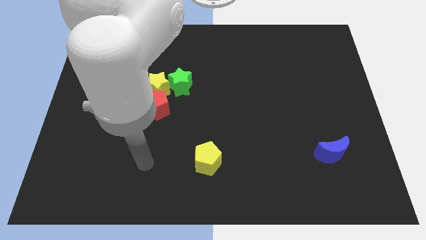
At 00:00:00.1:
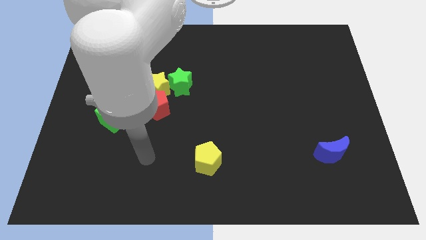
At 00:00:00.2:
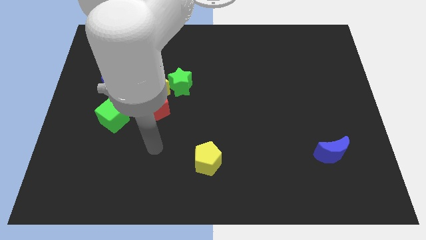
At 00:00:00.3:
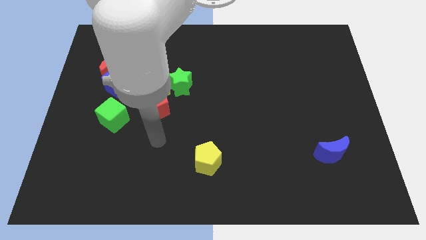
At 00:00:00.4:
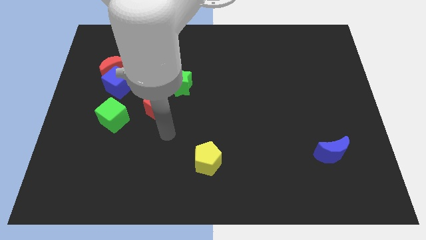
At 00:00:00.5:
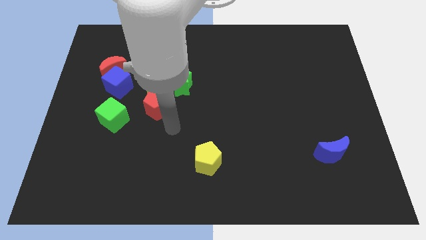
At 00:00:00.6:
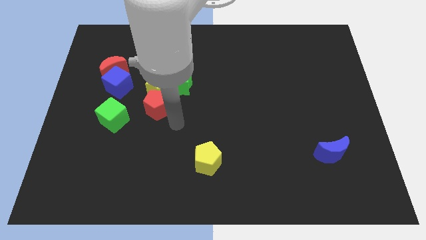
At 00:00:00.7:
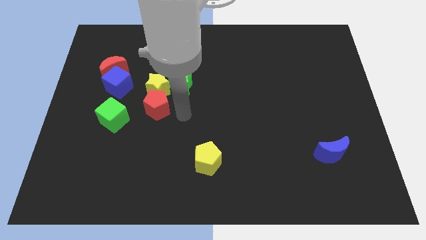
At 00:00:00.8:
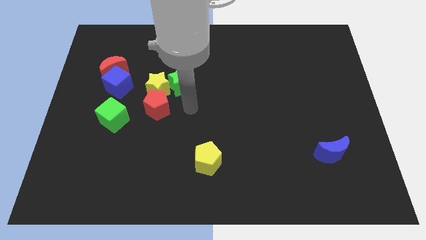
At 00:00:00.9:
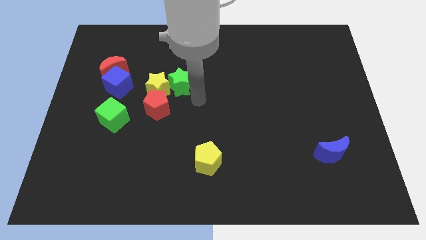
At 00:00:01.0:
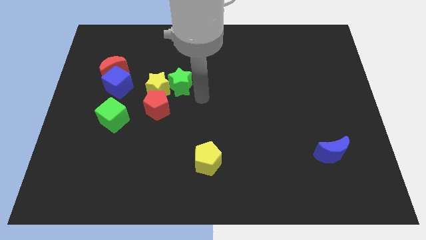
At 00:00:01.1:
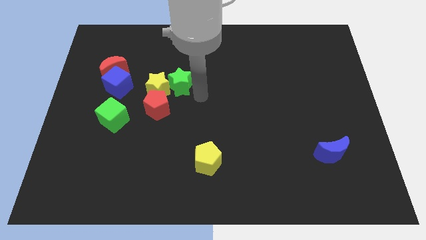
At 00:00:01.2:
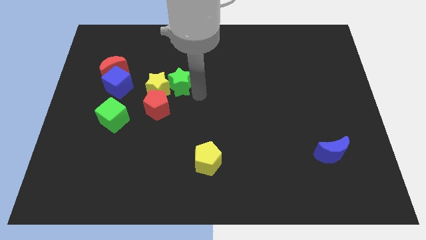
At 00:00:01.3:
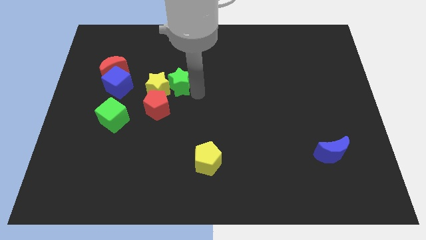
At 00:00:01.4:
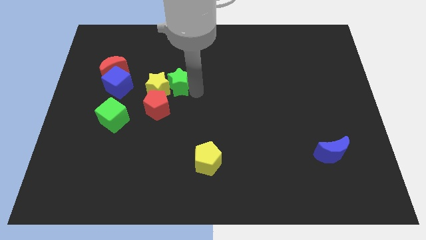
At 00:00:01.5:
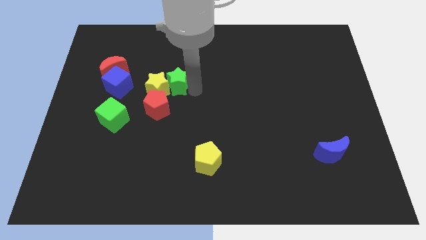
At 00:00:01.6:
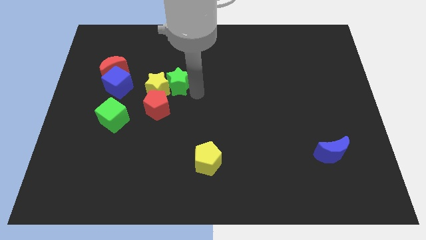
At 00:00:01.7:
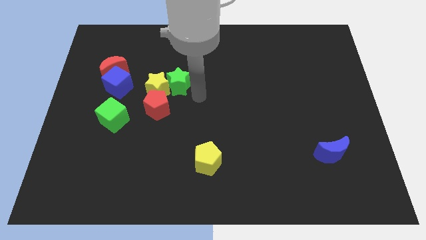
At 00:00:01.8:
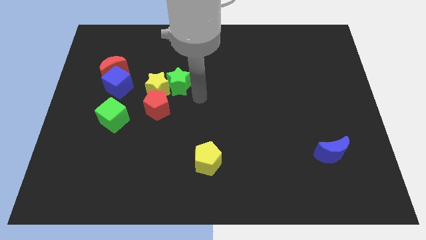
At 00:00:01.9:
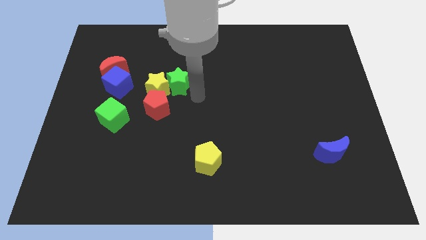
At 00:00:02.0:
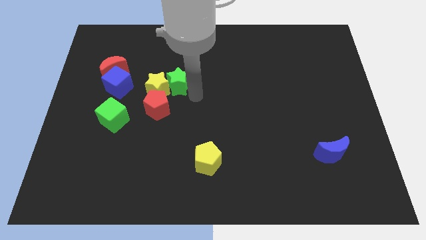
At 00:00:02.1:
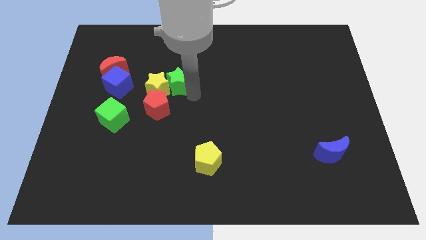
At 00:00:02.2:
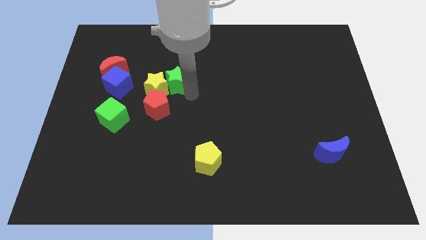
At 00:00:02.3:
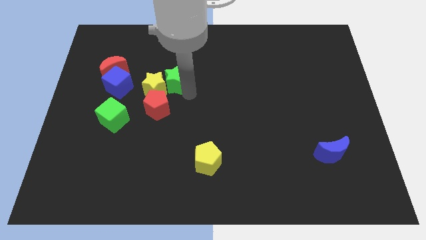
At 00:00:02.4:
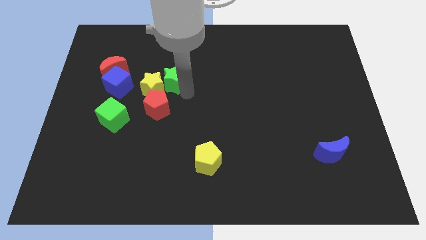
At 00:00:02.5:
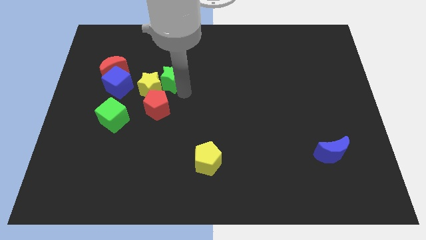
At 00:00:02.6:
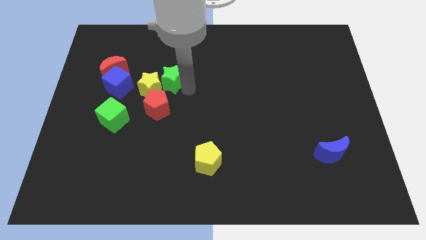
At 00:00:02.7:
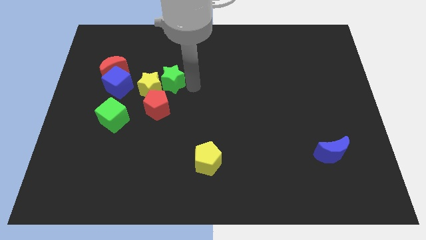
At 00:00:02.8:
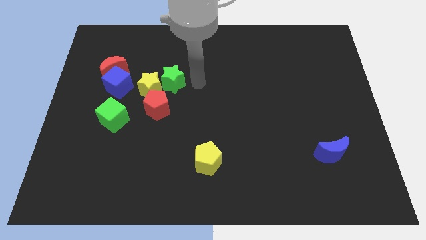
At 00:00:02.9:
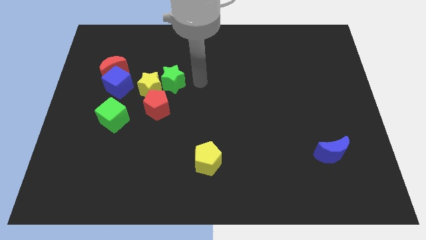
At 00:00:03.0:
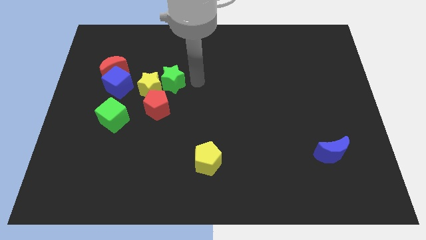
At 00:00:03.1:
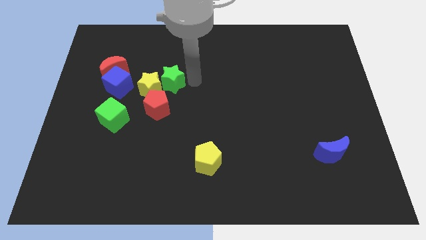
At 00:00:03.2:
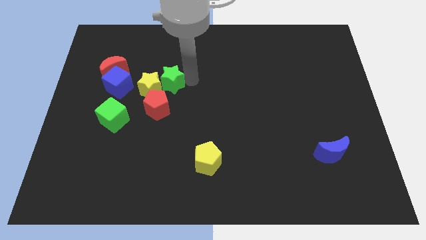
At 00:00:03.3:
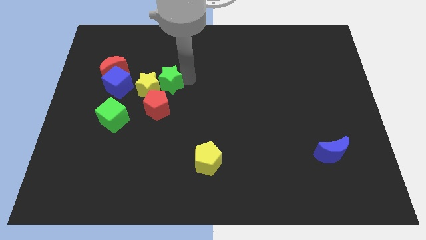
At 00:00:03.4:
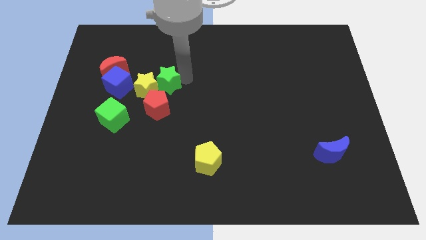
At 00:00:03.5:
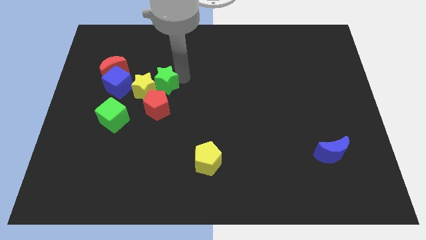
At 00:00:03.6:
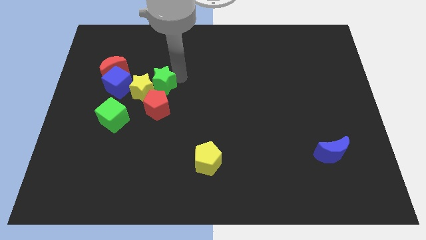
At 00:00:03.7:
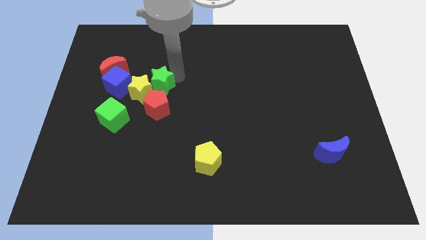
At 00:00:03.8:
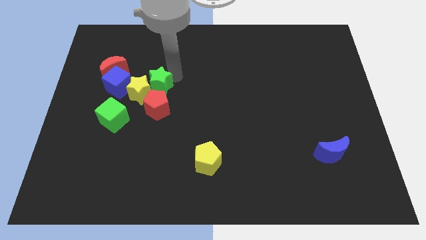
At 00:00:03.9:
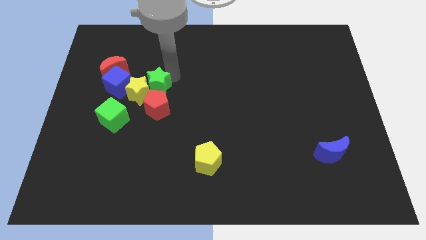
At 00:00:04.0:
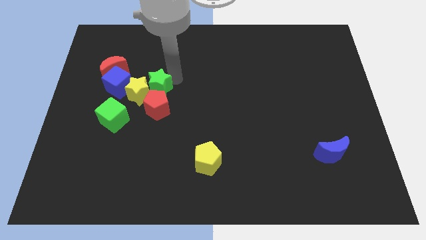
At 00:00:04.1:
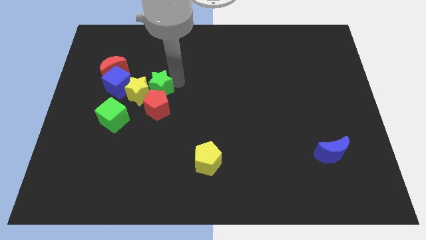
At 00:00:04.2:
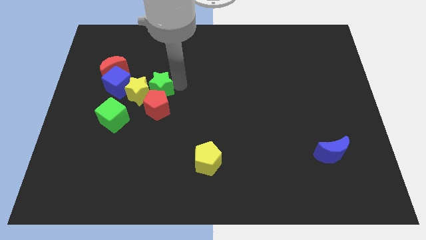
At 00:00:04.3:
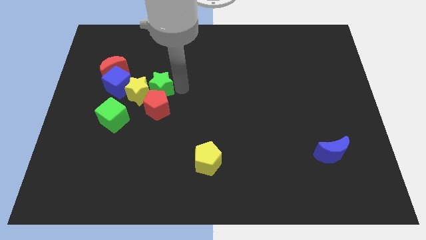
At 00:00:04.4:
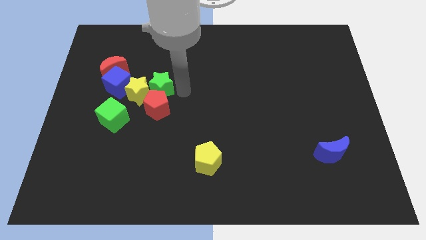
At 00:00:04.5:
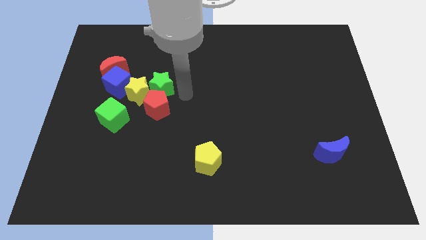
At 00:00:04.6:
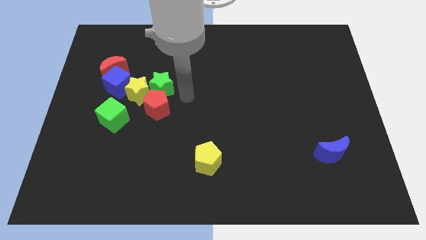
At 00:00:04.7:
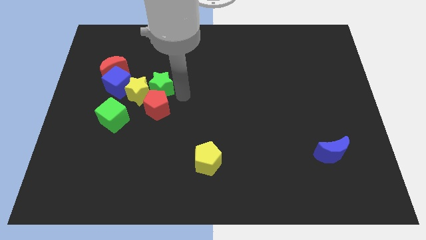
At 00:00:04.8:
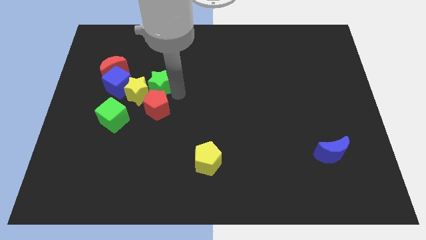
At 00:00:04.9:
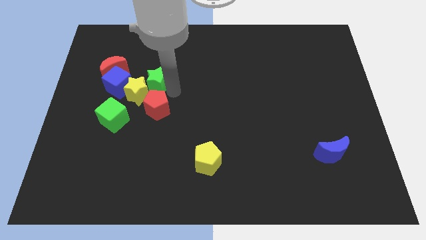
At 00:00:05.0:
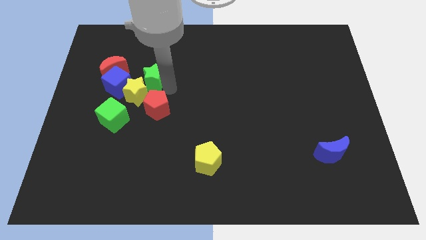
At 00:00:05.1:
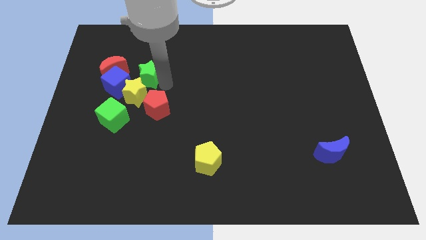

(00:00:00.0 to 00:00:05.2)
slide the green star a bit to the left

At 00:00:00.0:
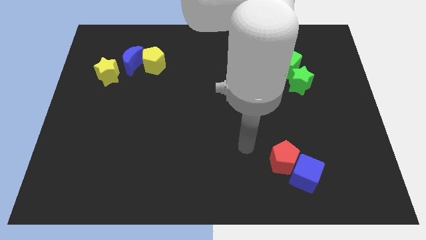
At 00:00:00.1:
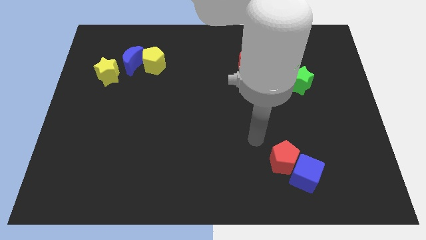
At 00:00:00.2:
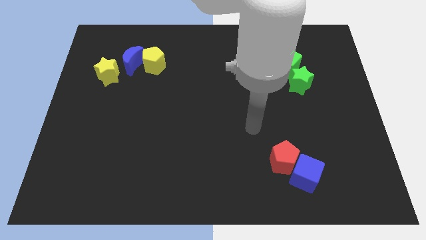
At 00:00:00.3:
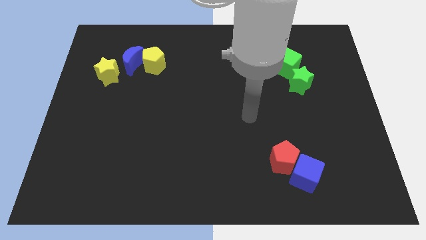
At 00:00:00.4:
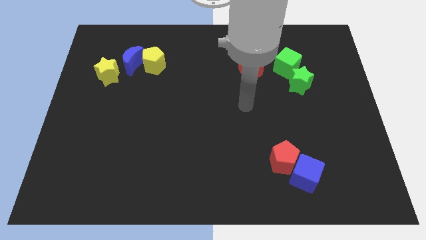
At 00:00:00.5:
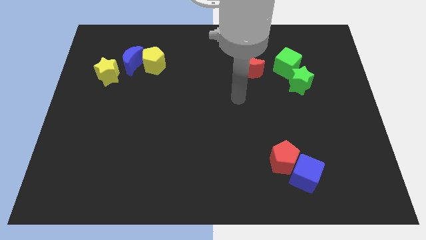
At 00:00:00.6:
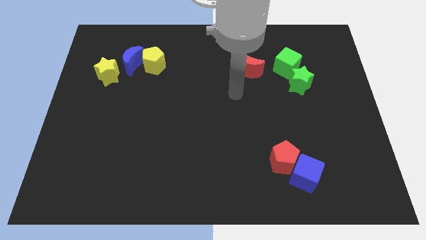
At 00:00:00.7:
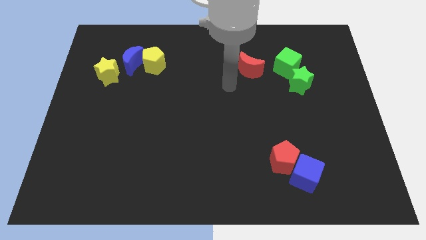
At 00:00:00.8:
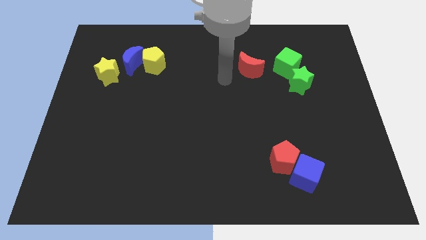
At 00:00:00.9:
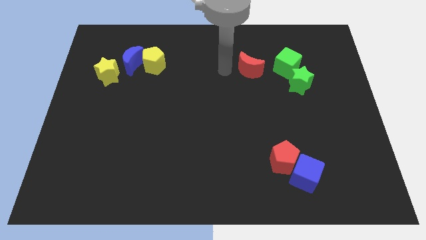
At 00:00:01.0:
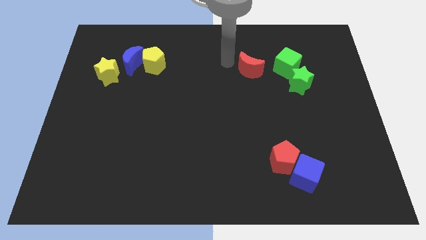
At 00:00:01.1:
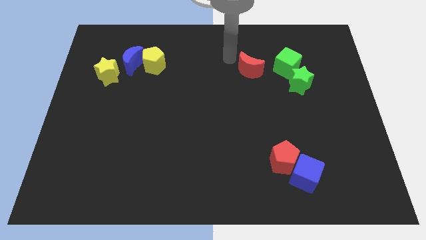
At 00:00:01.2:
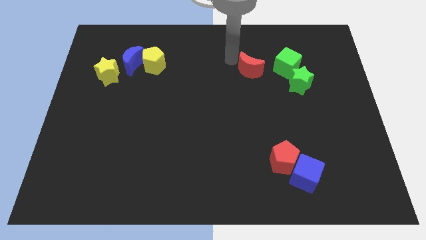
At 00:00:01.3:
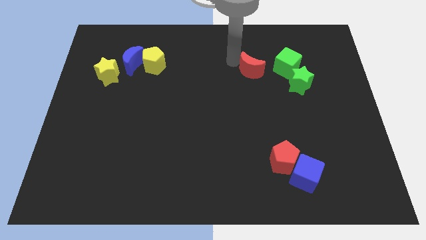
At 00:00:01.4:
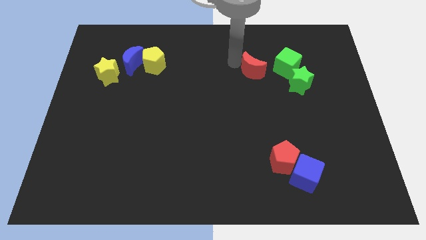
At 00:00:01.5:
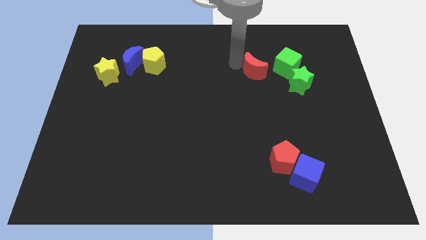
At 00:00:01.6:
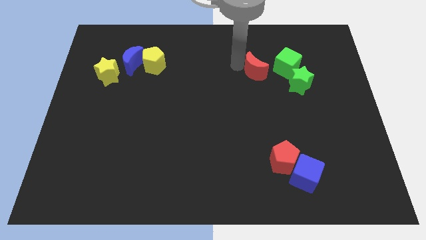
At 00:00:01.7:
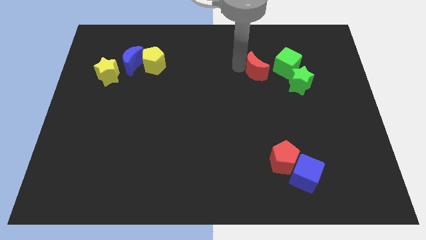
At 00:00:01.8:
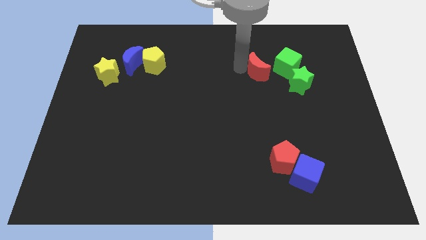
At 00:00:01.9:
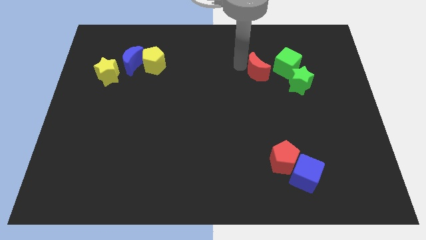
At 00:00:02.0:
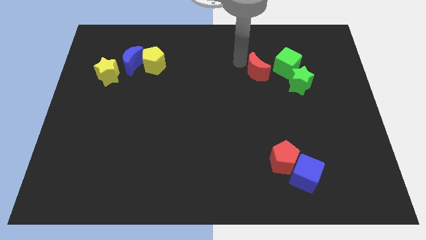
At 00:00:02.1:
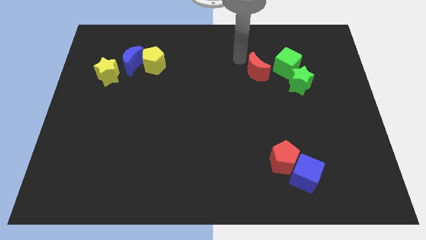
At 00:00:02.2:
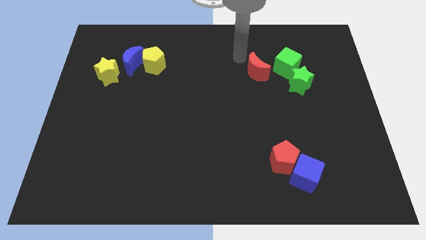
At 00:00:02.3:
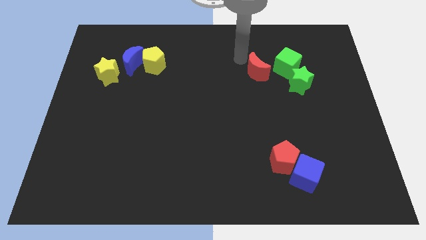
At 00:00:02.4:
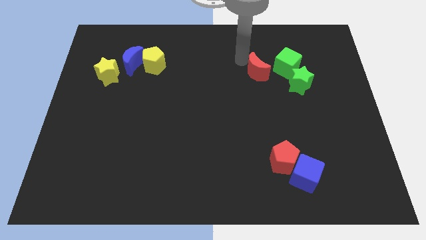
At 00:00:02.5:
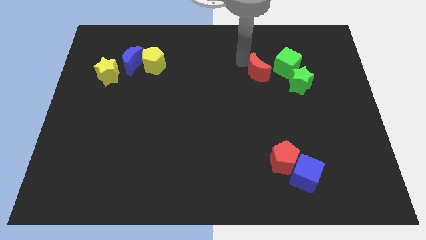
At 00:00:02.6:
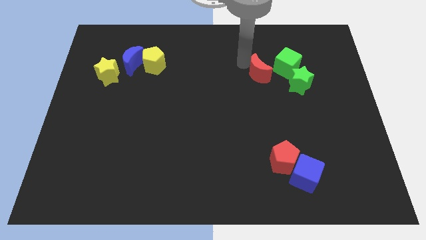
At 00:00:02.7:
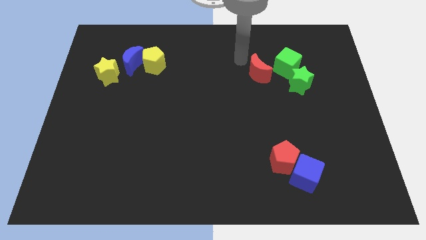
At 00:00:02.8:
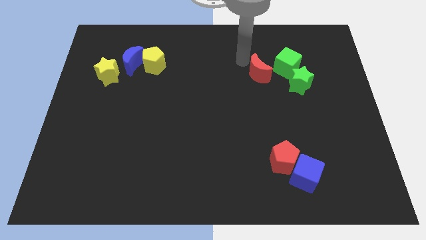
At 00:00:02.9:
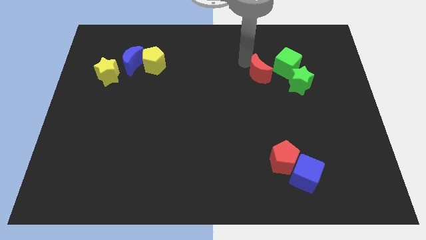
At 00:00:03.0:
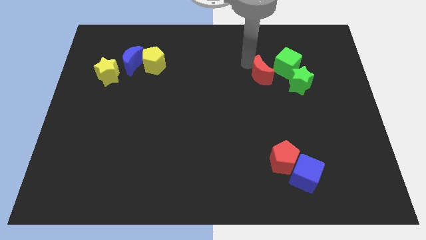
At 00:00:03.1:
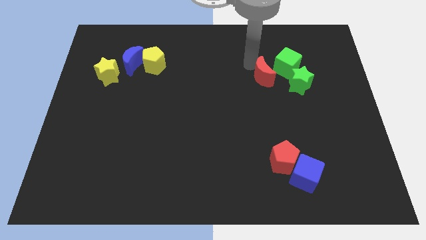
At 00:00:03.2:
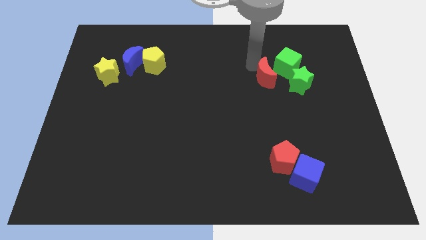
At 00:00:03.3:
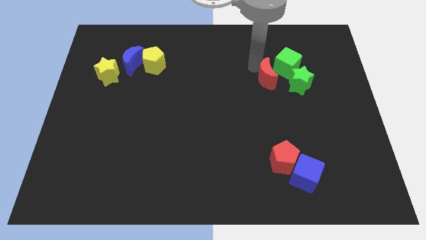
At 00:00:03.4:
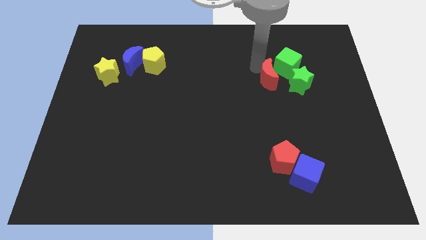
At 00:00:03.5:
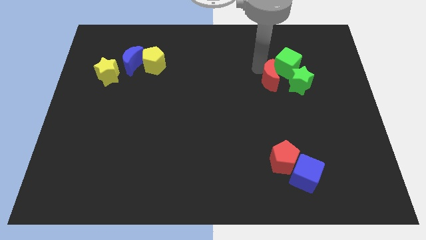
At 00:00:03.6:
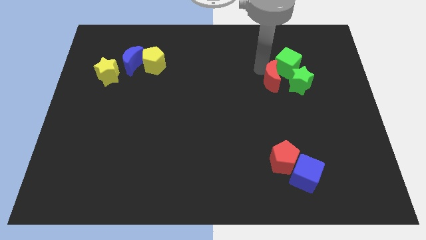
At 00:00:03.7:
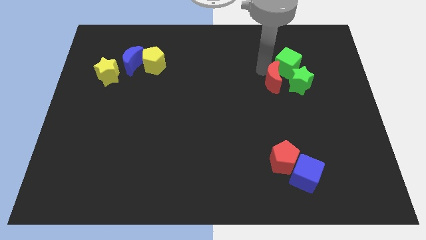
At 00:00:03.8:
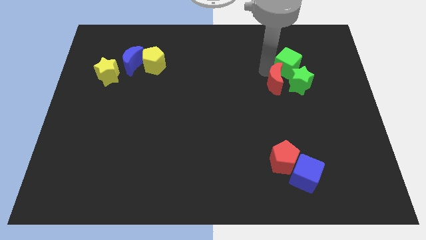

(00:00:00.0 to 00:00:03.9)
slide the red moon somewhat downwards and to the right
